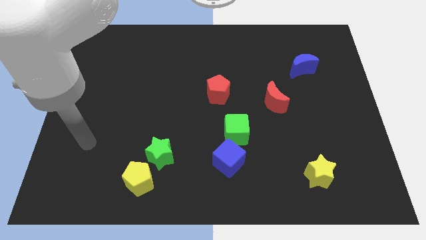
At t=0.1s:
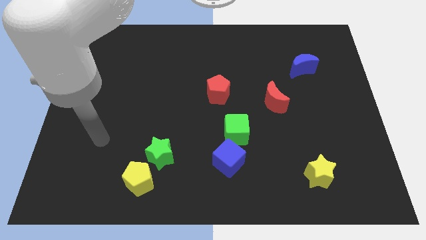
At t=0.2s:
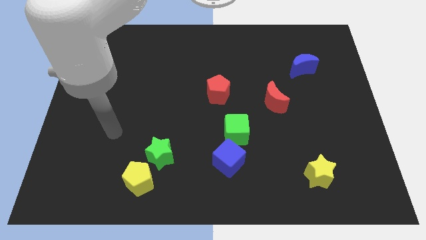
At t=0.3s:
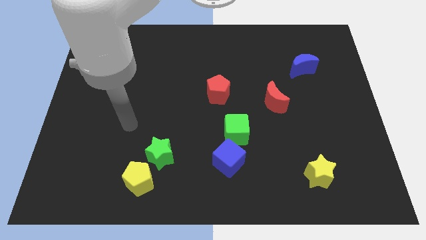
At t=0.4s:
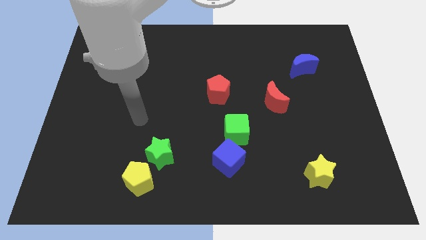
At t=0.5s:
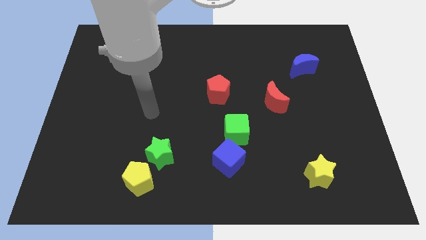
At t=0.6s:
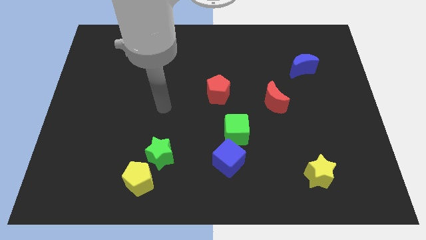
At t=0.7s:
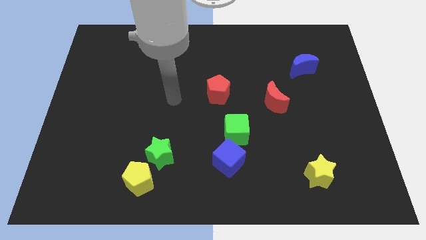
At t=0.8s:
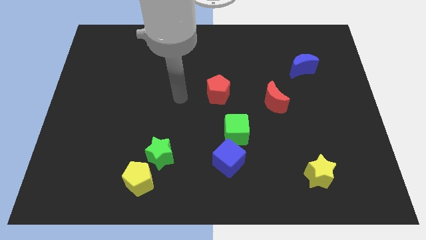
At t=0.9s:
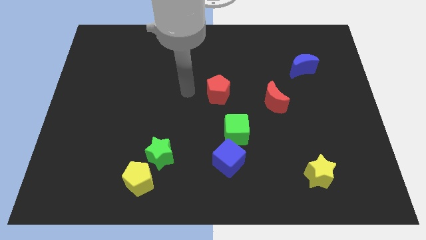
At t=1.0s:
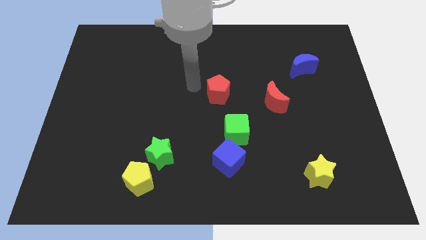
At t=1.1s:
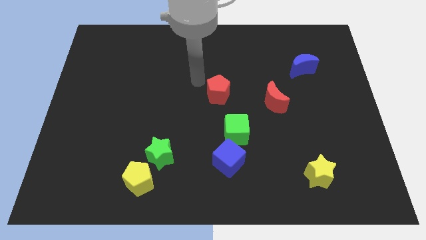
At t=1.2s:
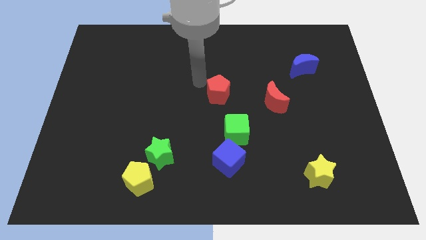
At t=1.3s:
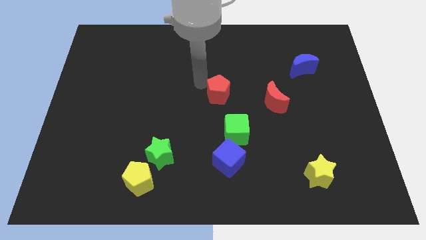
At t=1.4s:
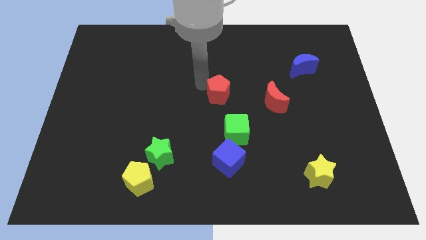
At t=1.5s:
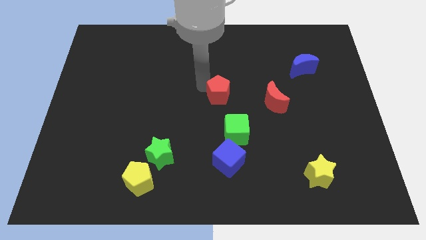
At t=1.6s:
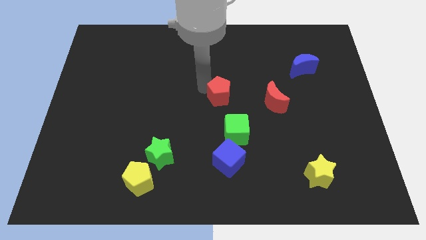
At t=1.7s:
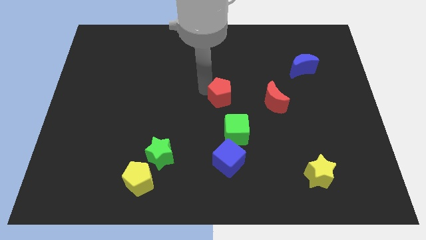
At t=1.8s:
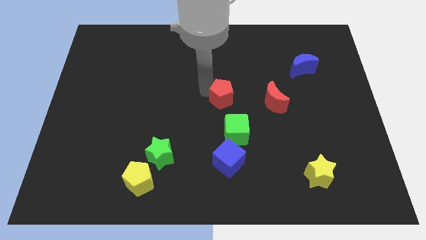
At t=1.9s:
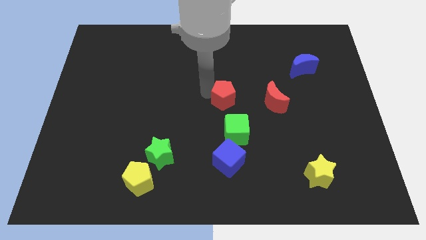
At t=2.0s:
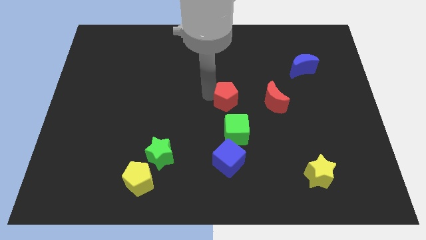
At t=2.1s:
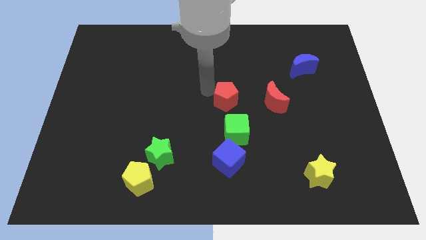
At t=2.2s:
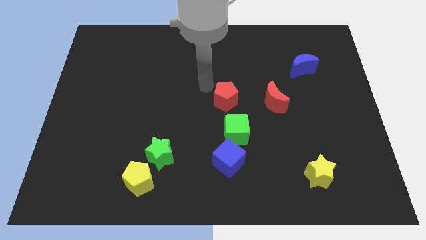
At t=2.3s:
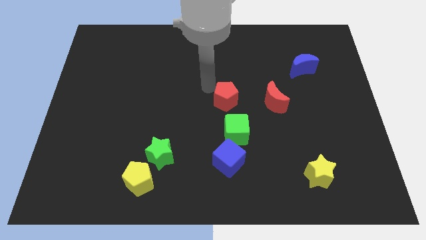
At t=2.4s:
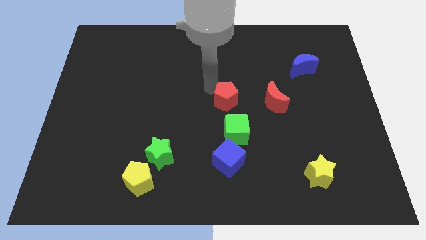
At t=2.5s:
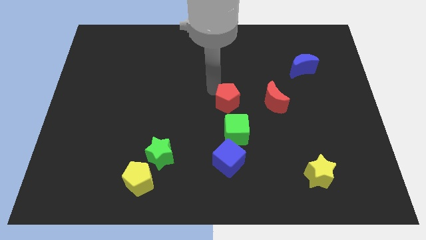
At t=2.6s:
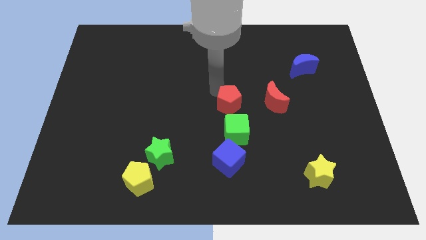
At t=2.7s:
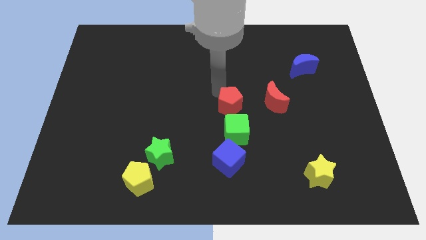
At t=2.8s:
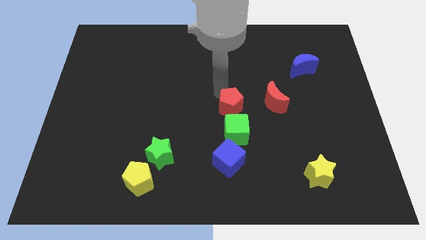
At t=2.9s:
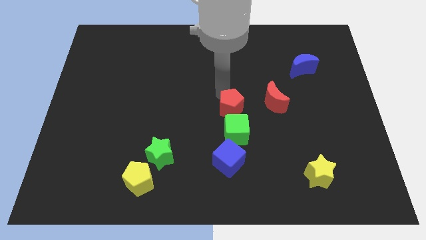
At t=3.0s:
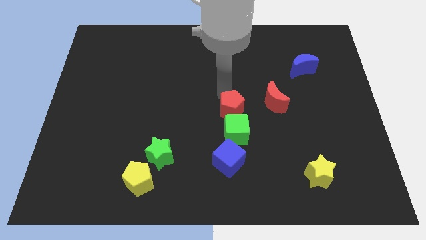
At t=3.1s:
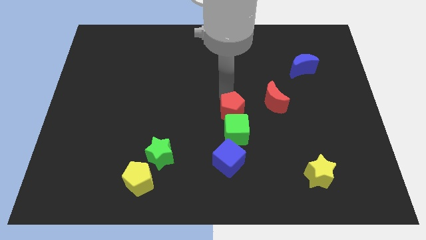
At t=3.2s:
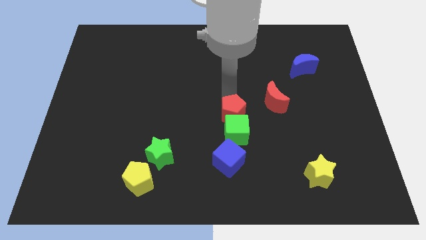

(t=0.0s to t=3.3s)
slightly move the red pentagon downwards and to the right diagonally

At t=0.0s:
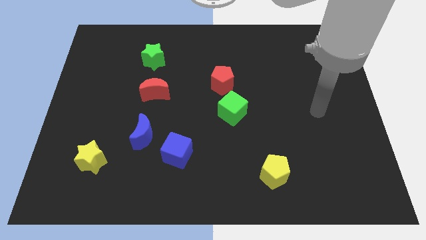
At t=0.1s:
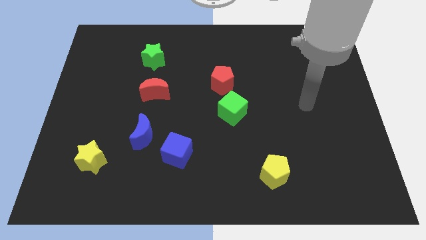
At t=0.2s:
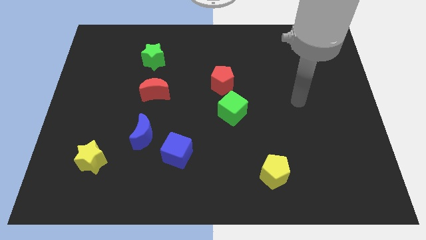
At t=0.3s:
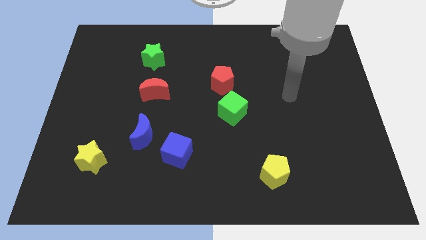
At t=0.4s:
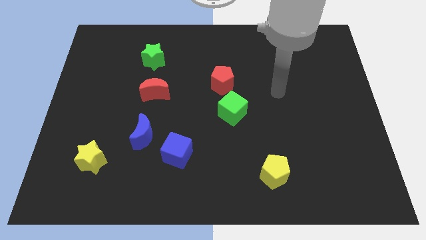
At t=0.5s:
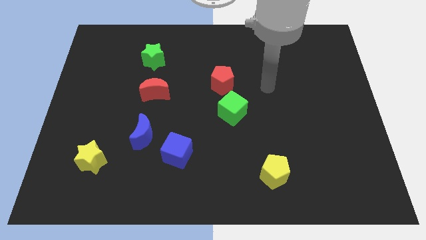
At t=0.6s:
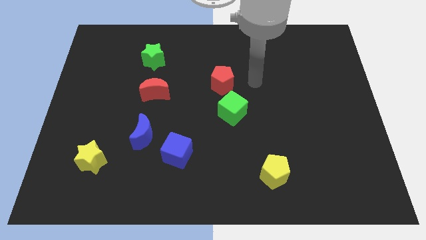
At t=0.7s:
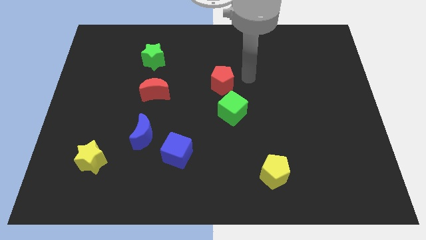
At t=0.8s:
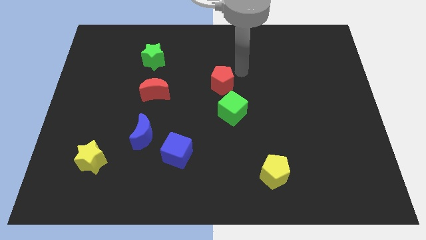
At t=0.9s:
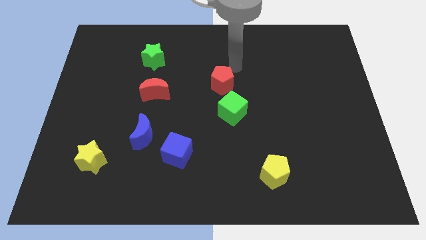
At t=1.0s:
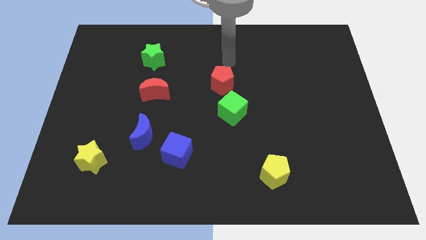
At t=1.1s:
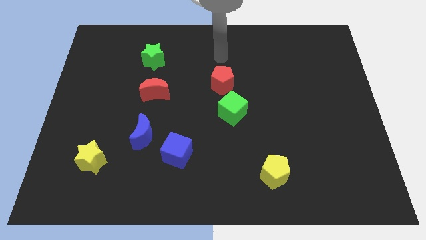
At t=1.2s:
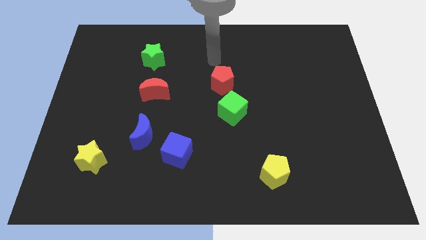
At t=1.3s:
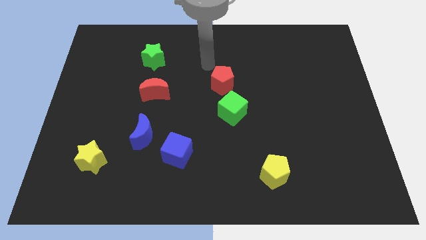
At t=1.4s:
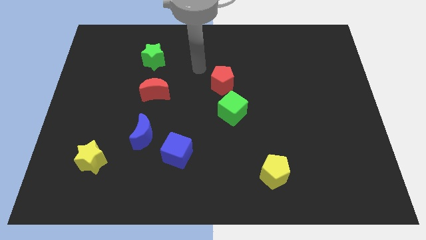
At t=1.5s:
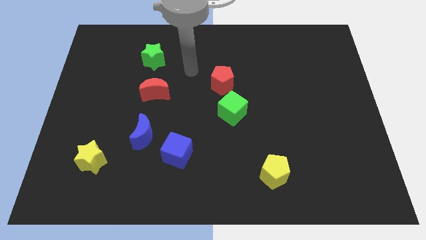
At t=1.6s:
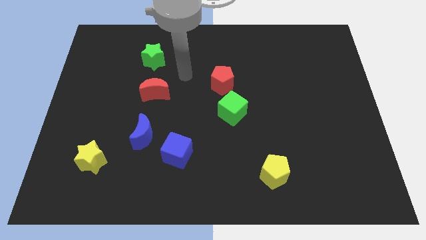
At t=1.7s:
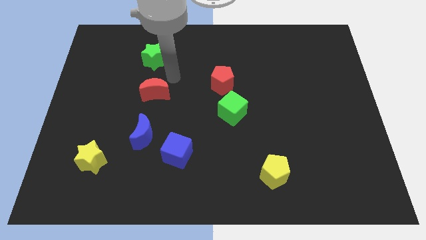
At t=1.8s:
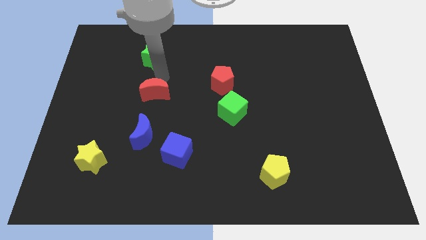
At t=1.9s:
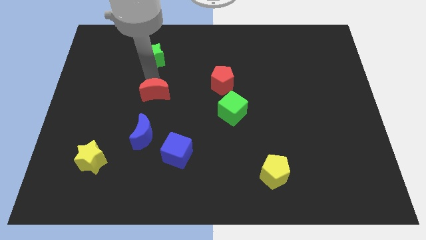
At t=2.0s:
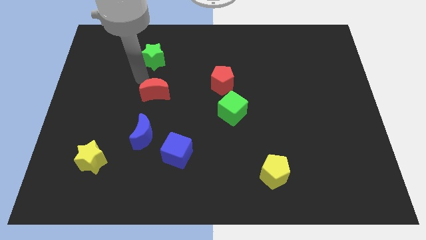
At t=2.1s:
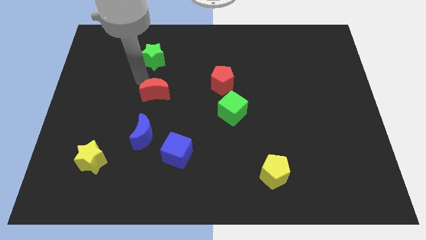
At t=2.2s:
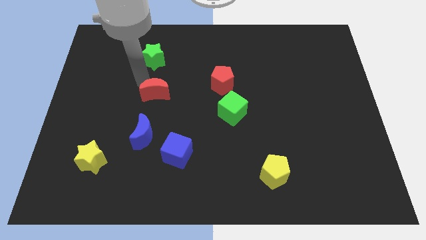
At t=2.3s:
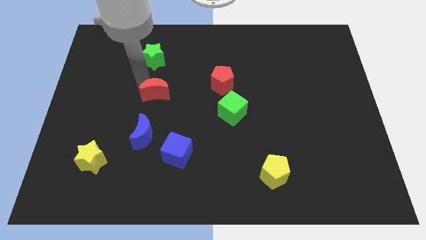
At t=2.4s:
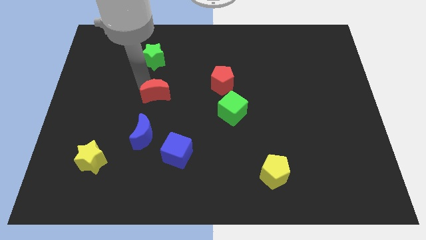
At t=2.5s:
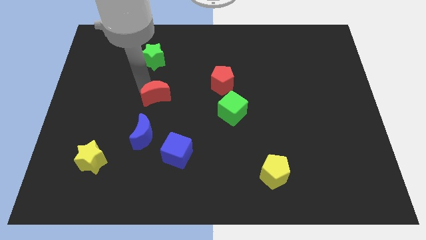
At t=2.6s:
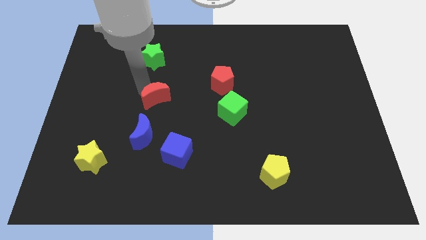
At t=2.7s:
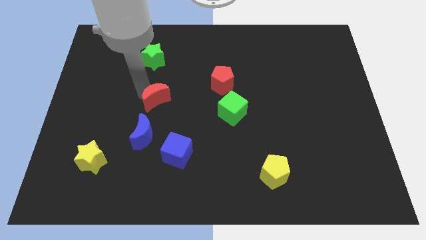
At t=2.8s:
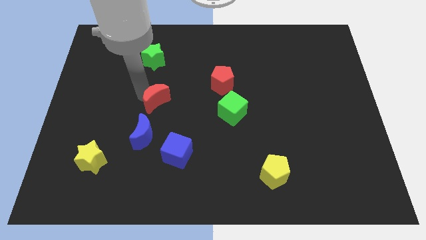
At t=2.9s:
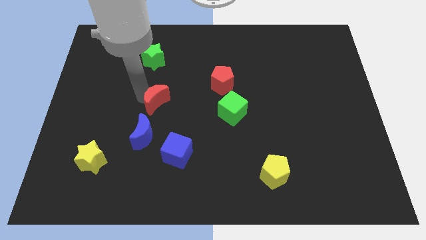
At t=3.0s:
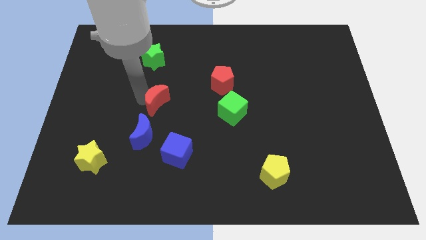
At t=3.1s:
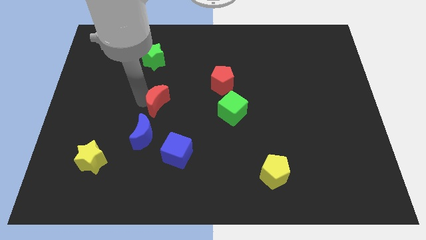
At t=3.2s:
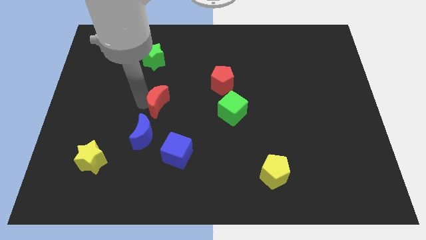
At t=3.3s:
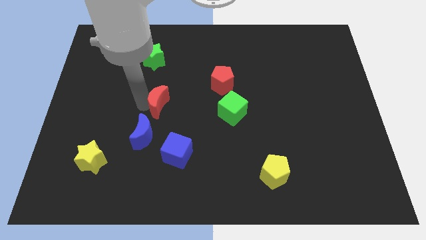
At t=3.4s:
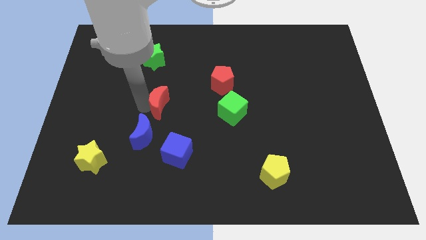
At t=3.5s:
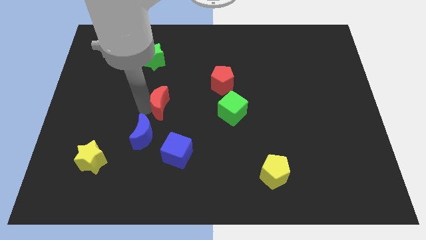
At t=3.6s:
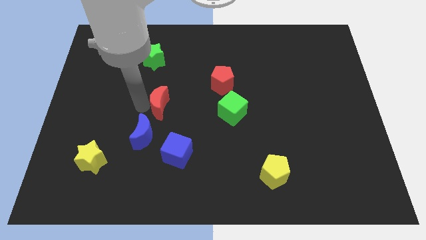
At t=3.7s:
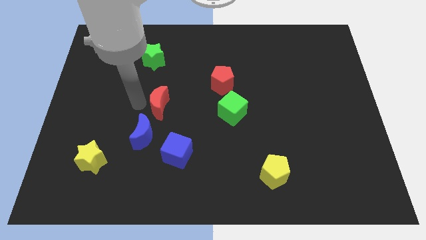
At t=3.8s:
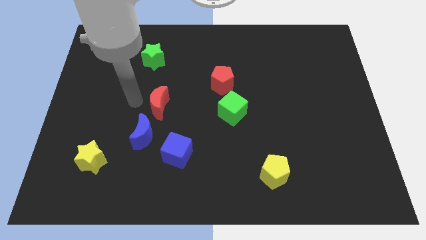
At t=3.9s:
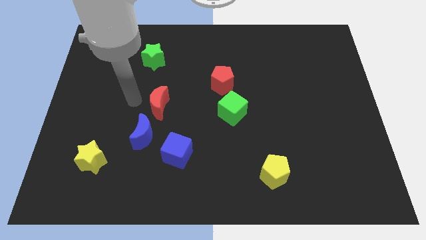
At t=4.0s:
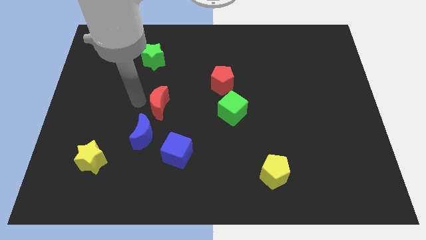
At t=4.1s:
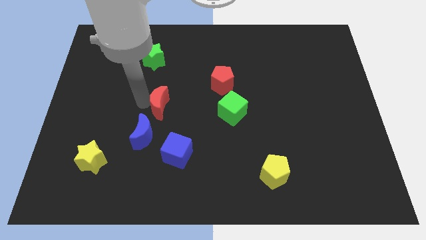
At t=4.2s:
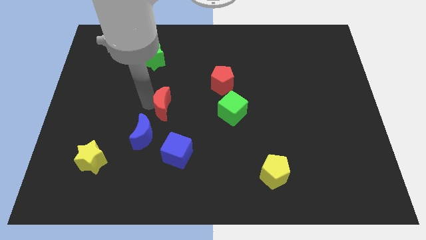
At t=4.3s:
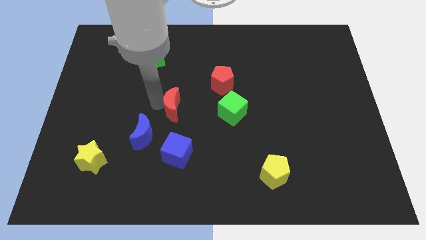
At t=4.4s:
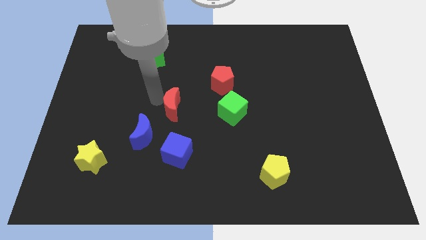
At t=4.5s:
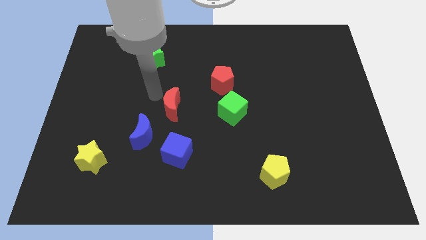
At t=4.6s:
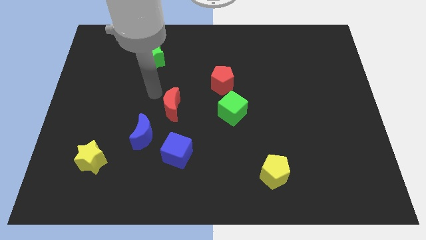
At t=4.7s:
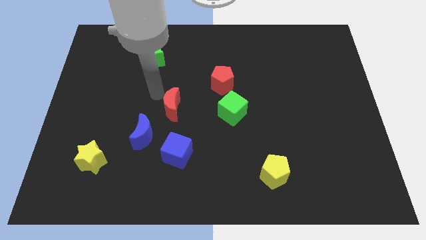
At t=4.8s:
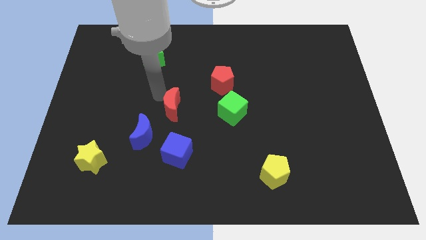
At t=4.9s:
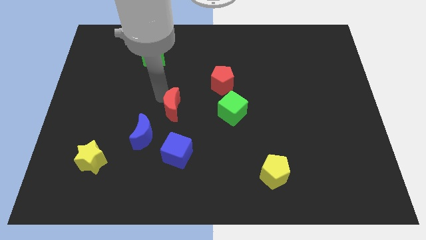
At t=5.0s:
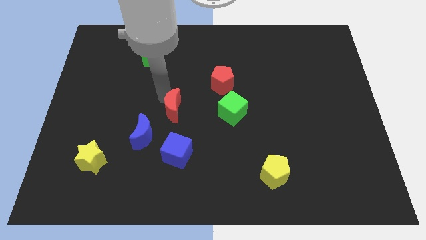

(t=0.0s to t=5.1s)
slightly slide the red moon down and then right
